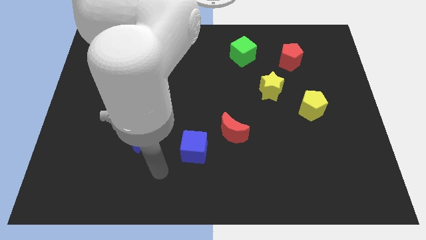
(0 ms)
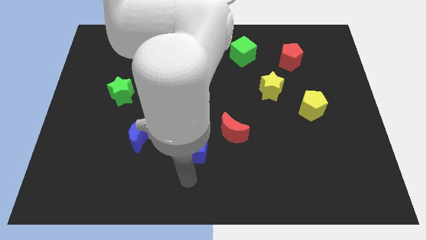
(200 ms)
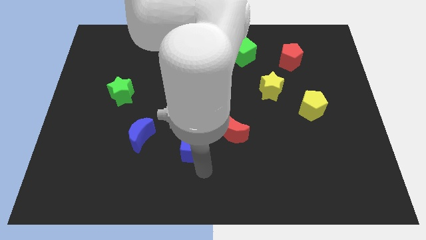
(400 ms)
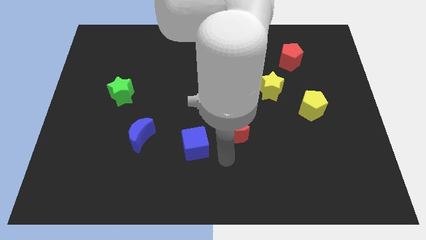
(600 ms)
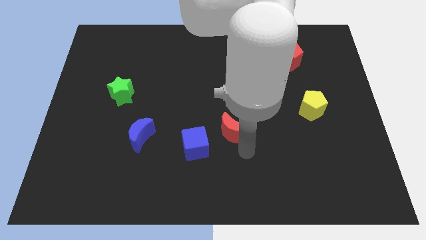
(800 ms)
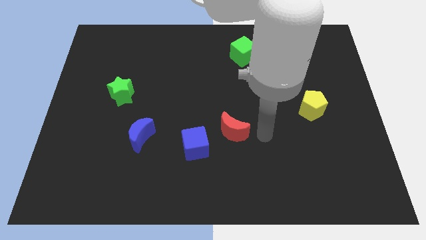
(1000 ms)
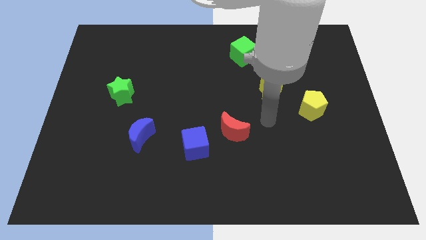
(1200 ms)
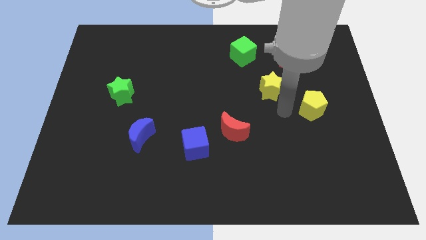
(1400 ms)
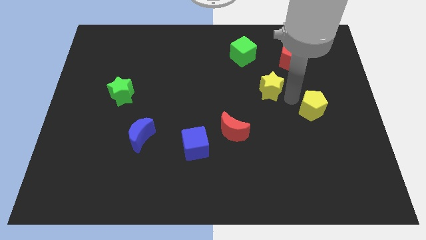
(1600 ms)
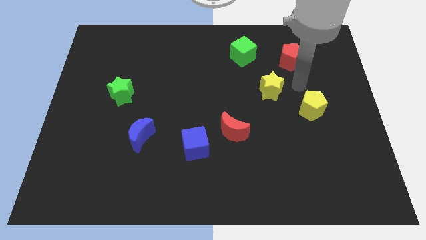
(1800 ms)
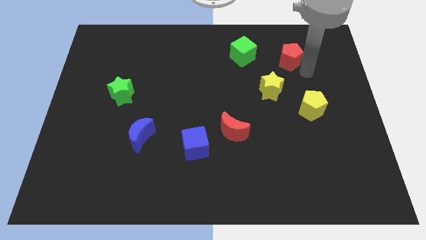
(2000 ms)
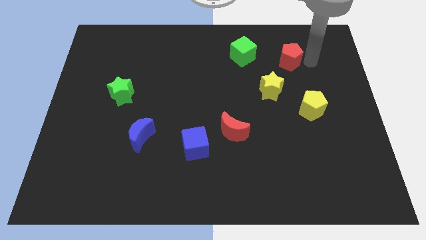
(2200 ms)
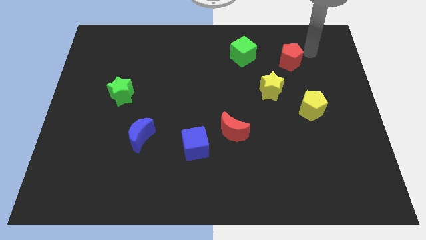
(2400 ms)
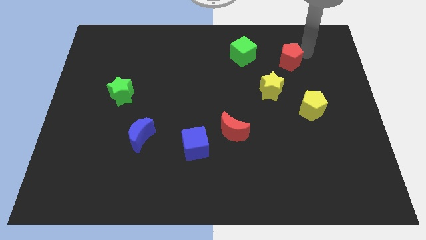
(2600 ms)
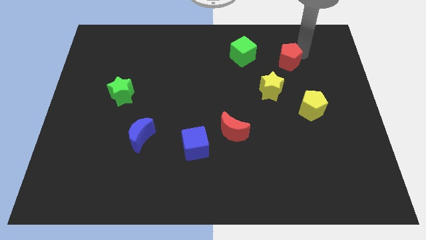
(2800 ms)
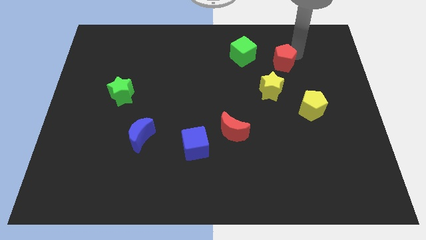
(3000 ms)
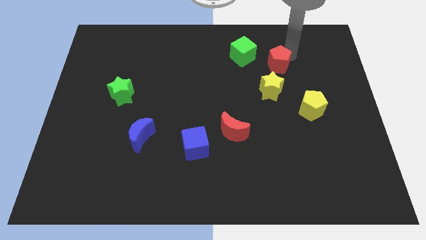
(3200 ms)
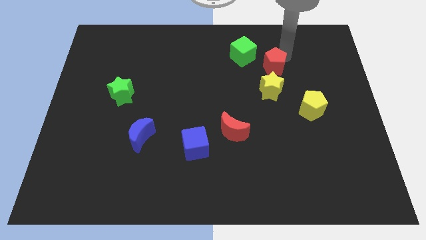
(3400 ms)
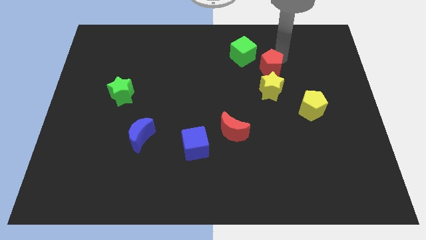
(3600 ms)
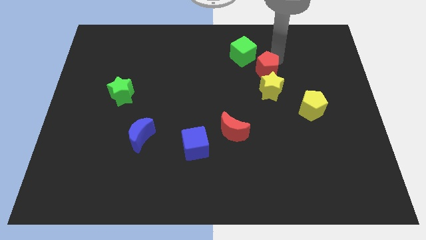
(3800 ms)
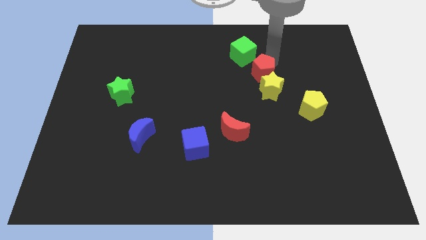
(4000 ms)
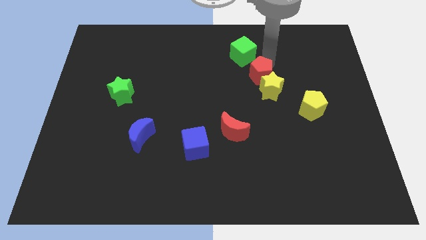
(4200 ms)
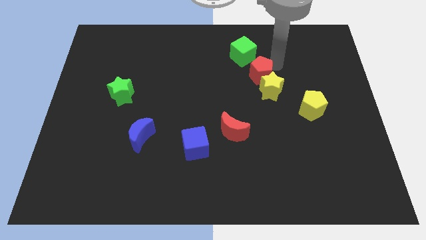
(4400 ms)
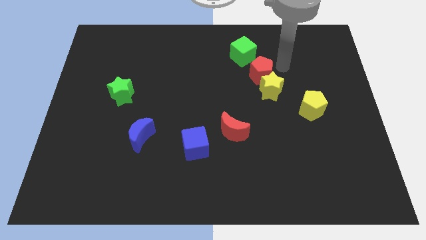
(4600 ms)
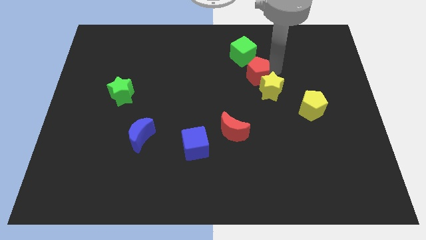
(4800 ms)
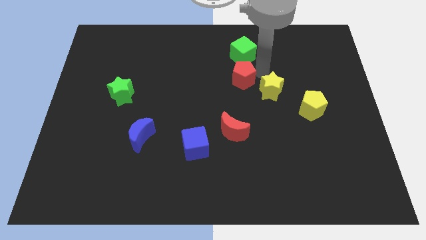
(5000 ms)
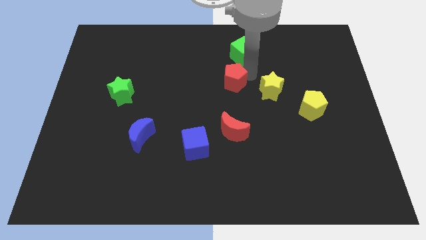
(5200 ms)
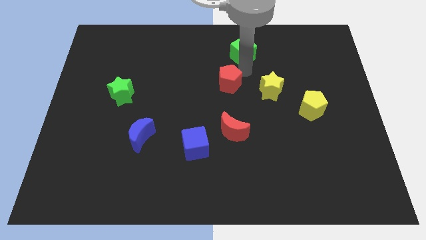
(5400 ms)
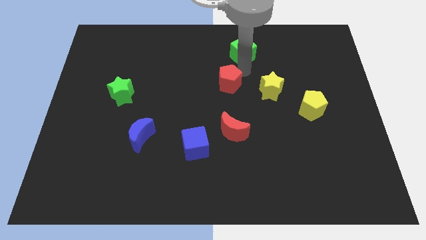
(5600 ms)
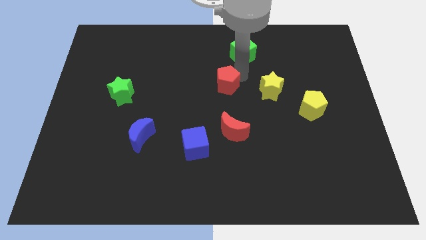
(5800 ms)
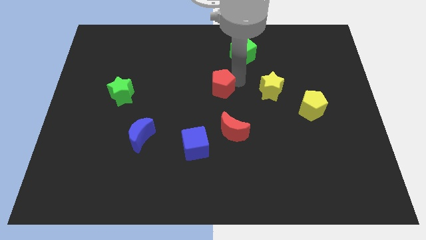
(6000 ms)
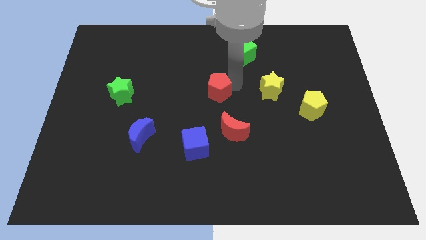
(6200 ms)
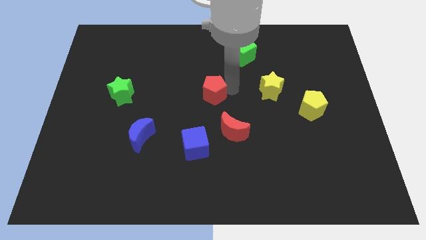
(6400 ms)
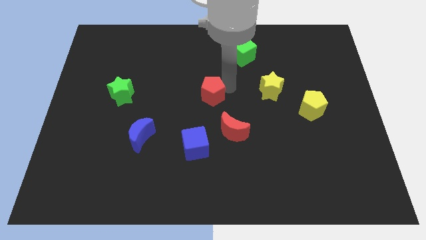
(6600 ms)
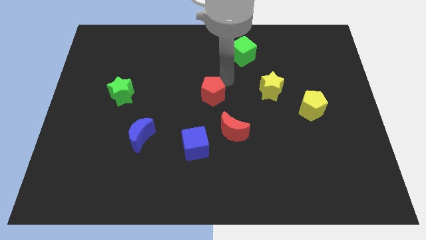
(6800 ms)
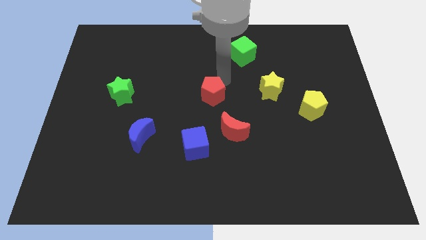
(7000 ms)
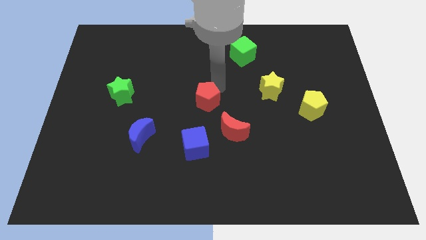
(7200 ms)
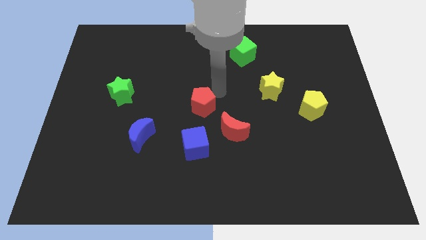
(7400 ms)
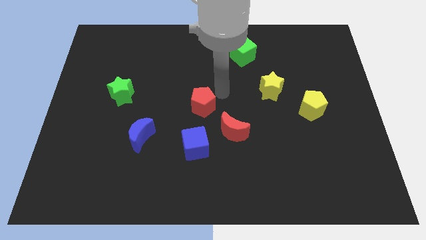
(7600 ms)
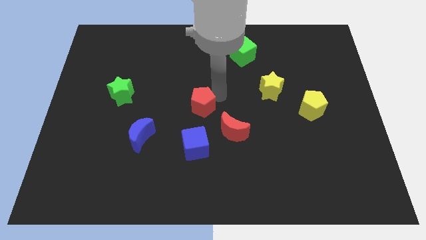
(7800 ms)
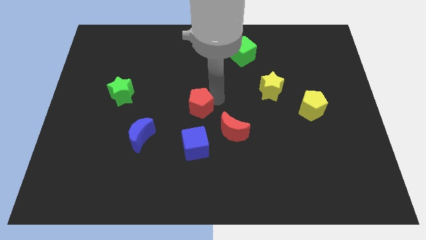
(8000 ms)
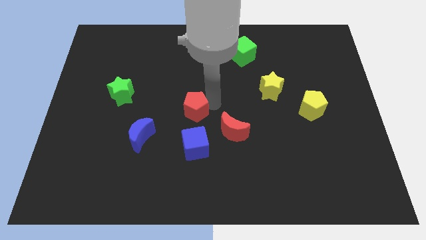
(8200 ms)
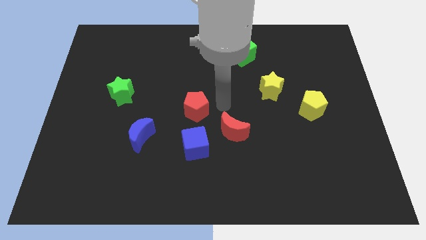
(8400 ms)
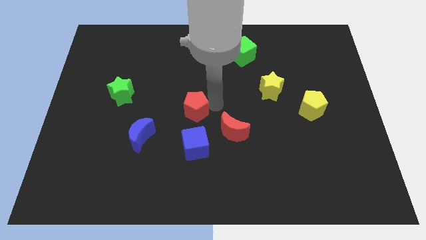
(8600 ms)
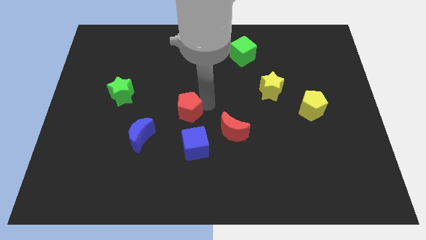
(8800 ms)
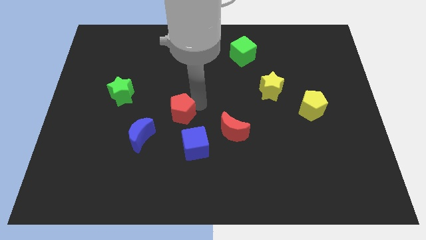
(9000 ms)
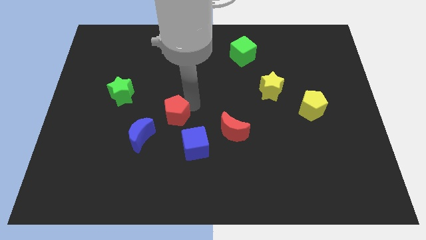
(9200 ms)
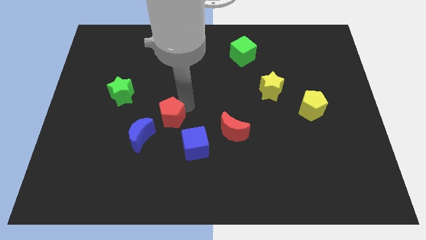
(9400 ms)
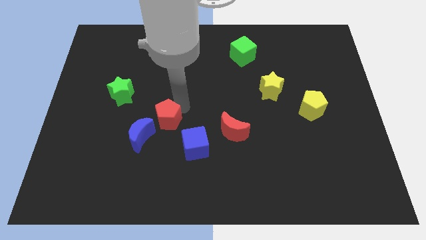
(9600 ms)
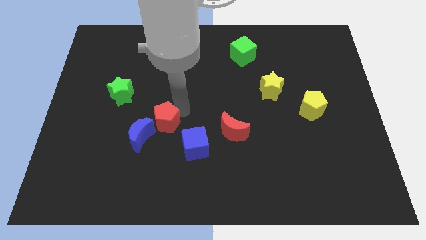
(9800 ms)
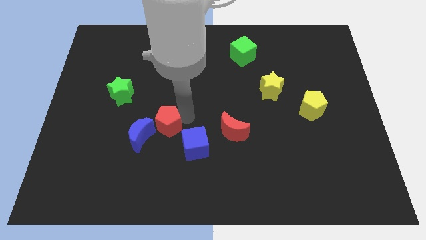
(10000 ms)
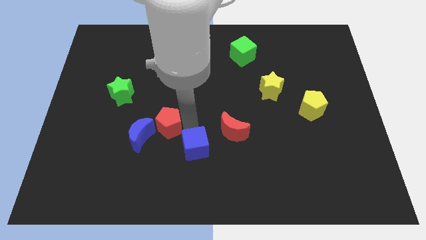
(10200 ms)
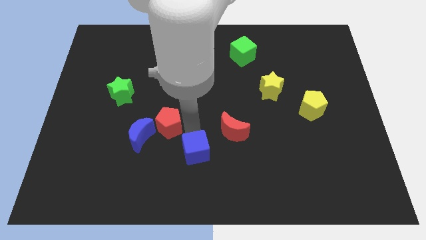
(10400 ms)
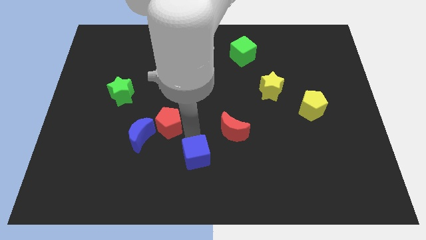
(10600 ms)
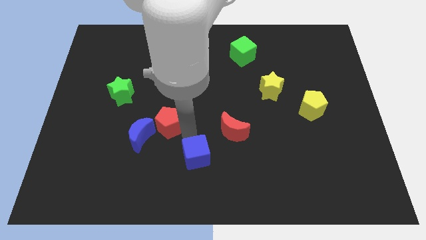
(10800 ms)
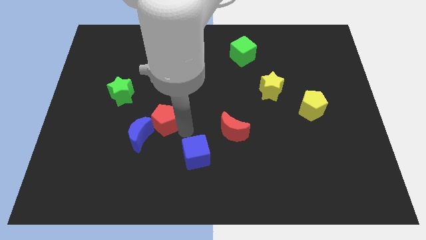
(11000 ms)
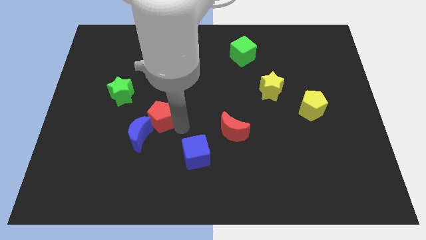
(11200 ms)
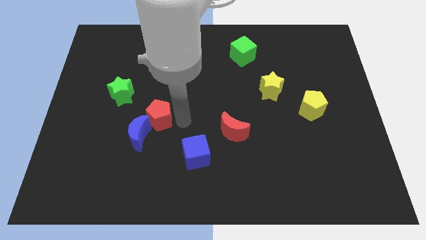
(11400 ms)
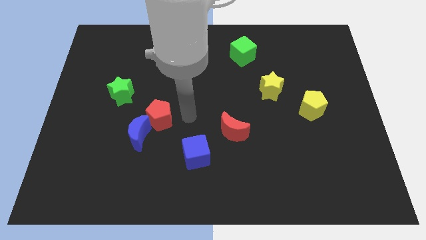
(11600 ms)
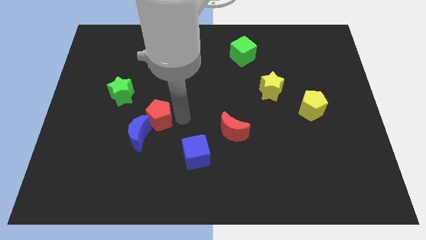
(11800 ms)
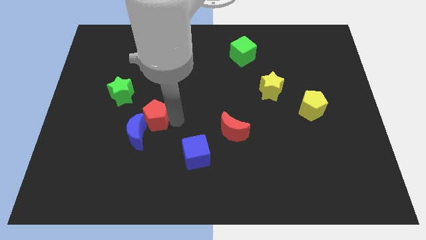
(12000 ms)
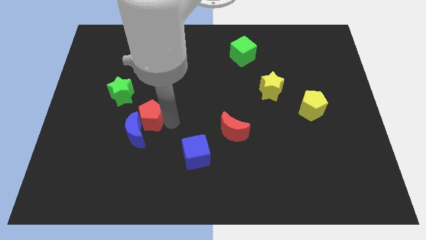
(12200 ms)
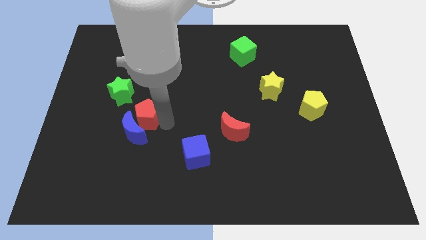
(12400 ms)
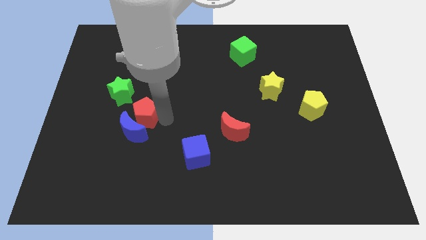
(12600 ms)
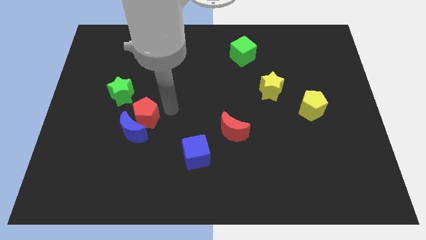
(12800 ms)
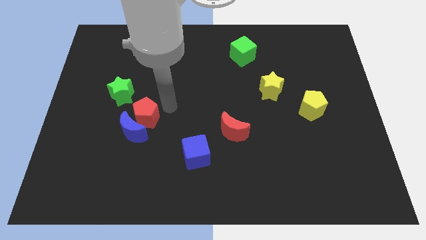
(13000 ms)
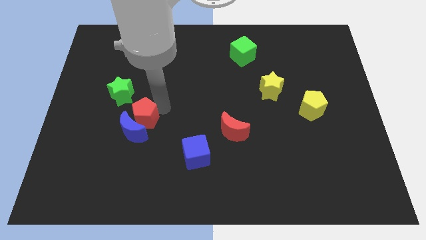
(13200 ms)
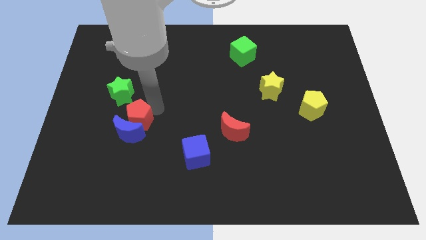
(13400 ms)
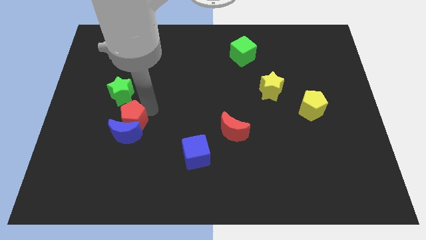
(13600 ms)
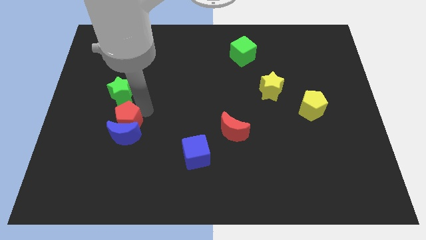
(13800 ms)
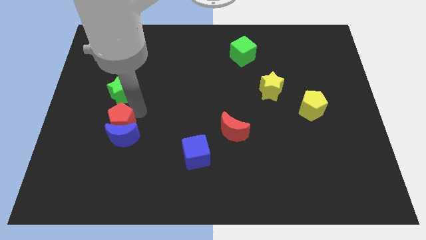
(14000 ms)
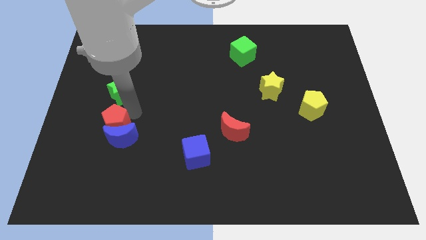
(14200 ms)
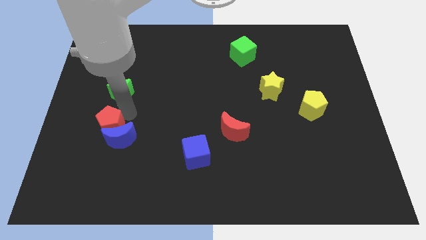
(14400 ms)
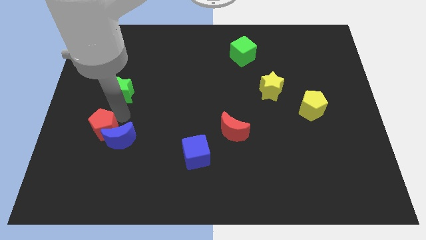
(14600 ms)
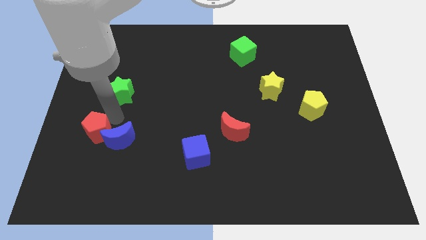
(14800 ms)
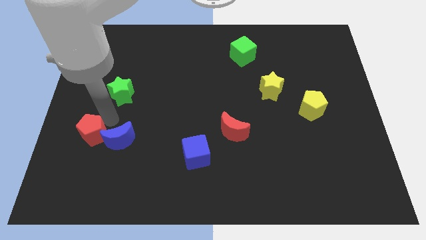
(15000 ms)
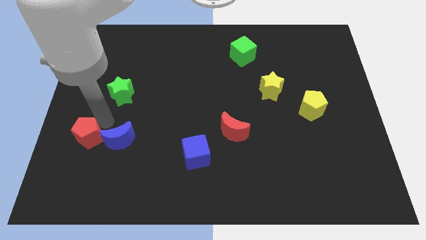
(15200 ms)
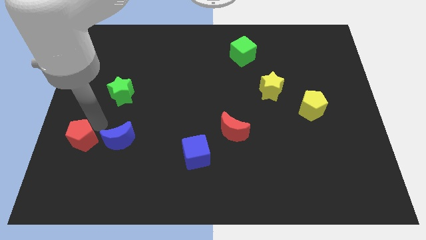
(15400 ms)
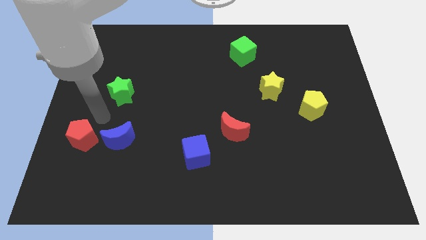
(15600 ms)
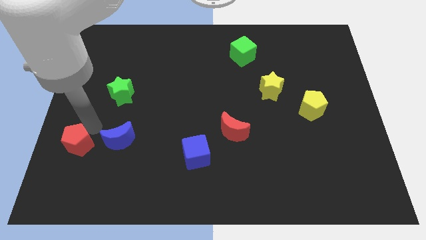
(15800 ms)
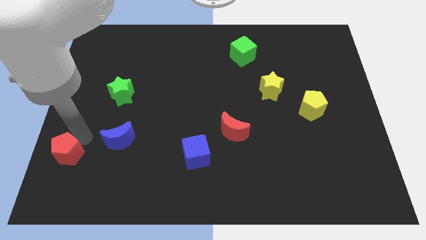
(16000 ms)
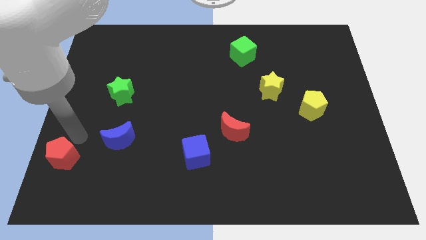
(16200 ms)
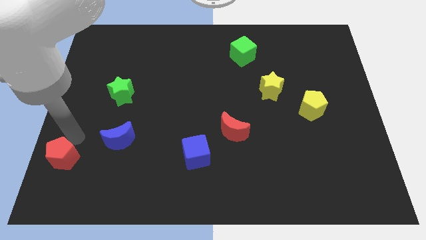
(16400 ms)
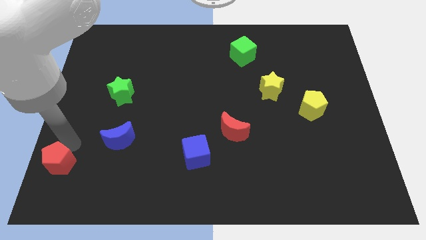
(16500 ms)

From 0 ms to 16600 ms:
push the red pentagon to the bottom left
